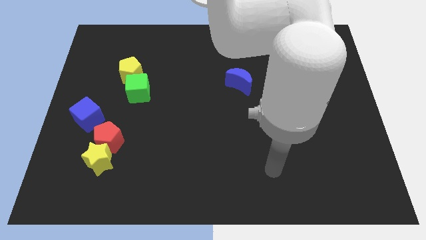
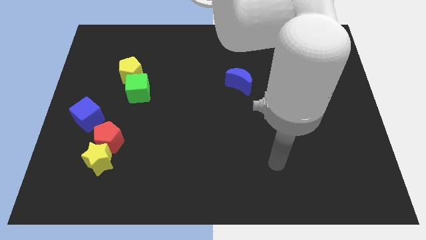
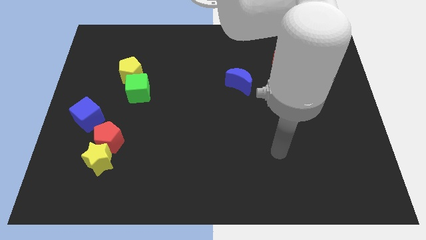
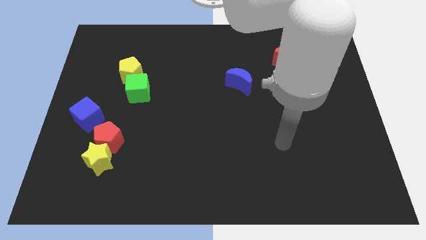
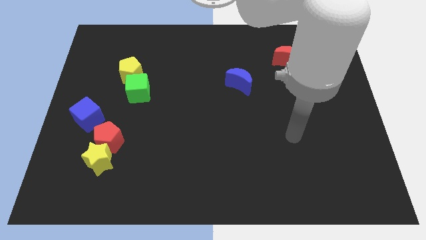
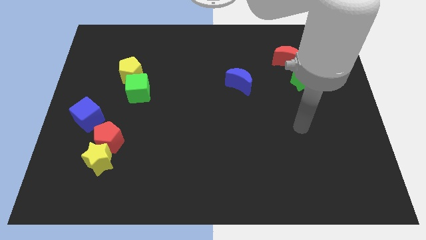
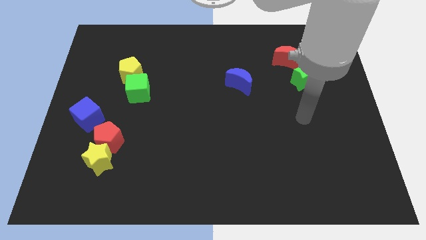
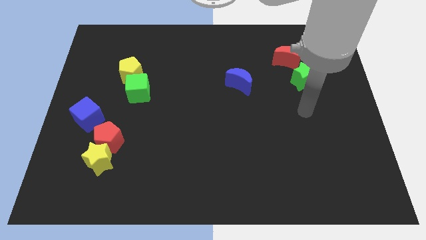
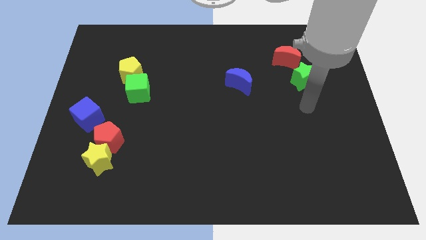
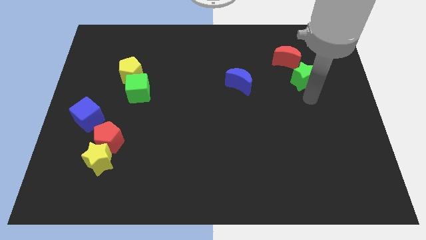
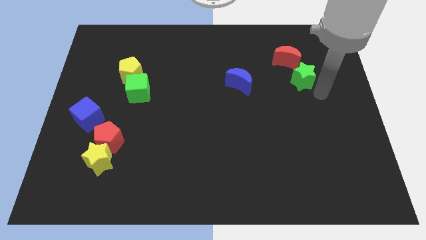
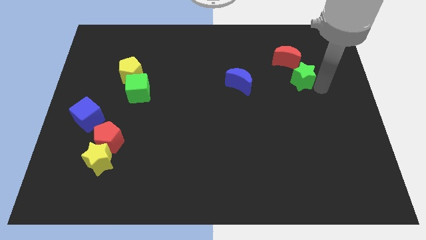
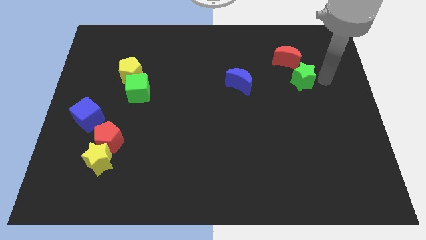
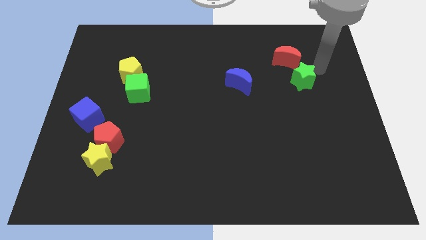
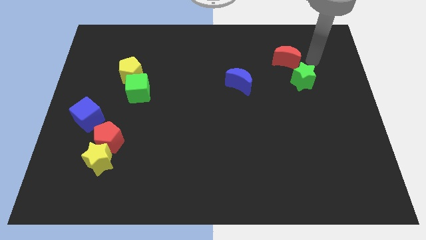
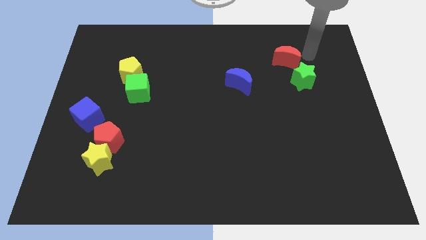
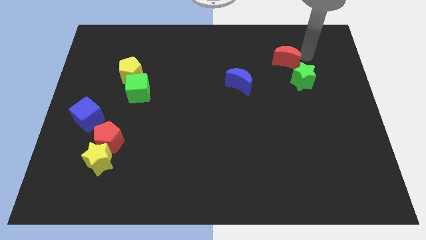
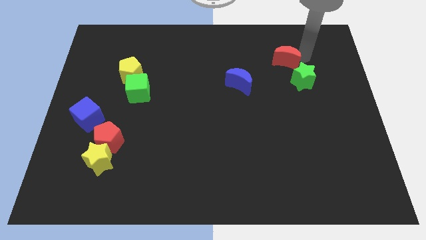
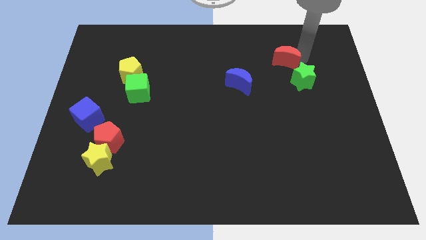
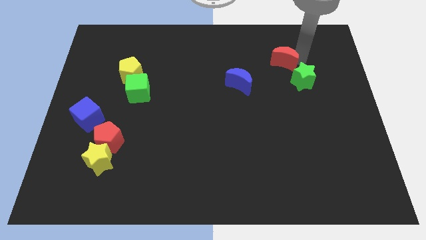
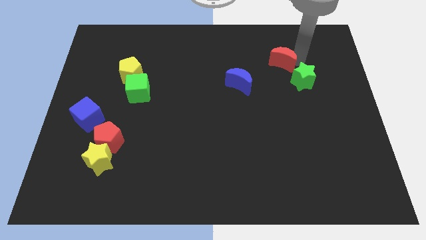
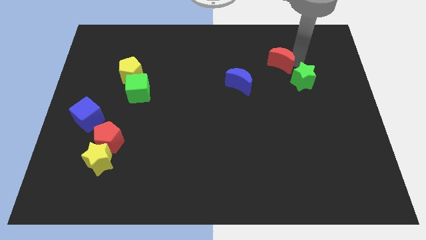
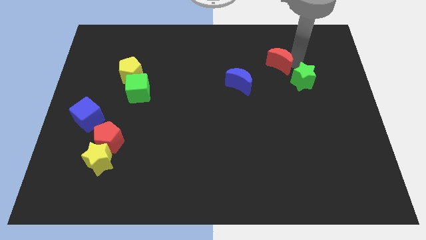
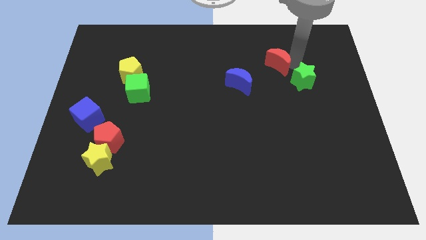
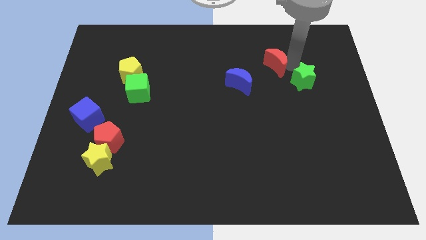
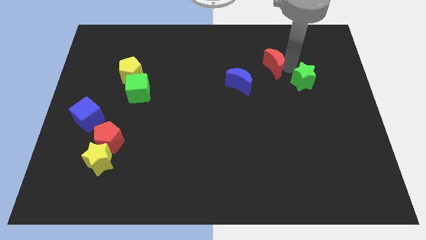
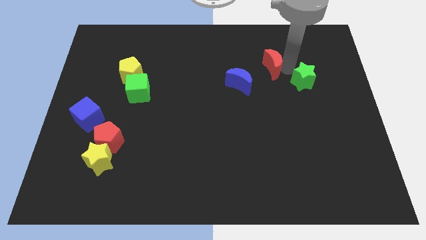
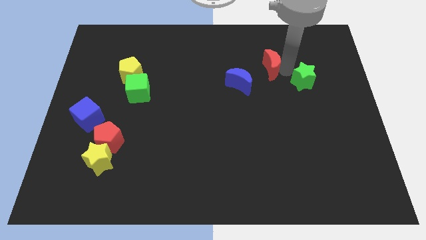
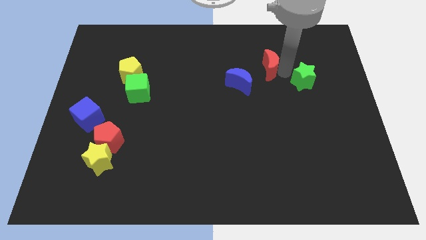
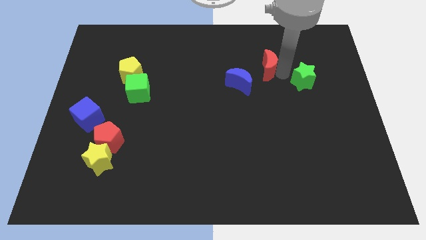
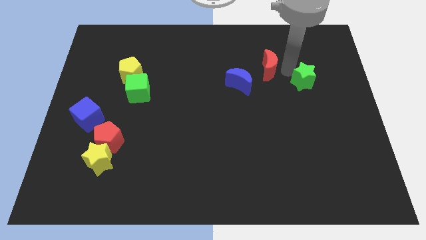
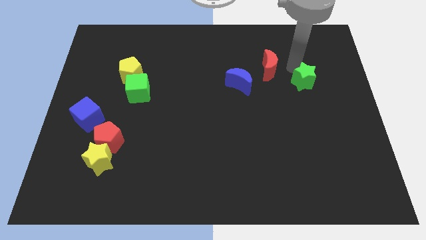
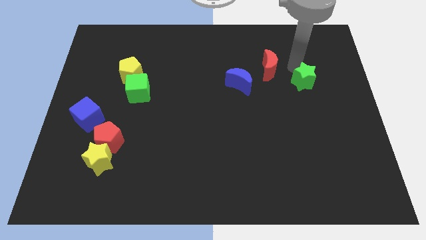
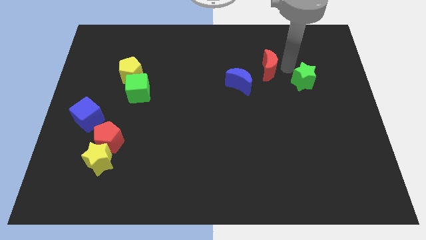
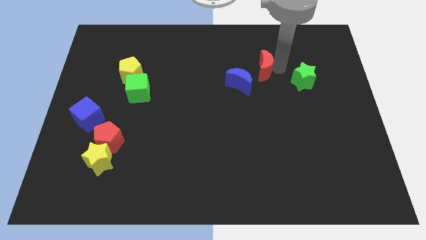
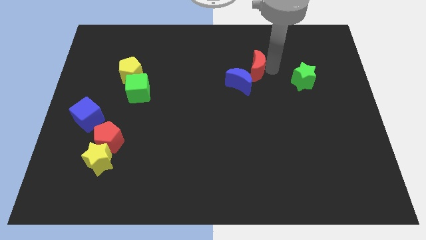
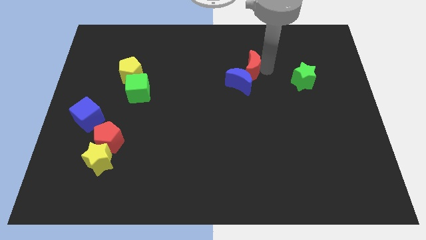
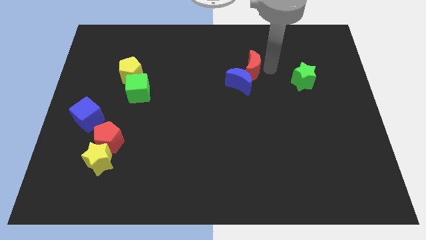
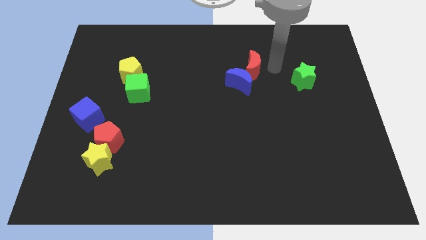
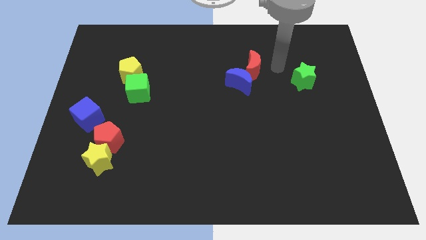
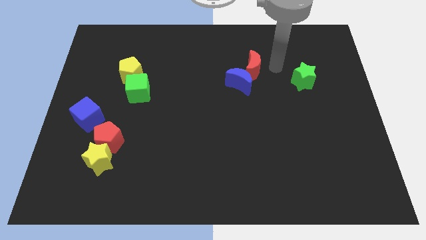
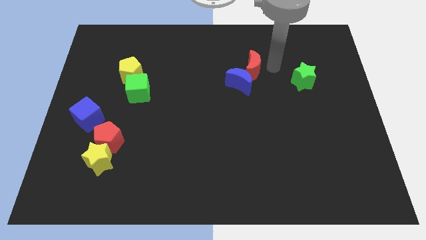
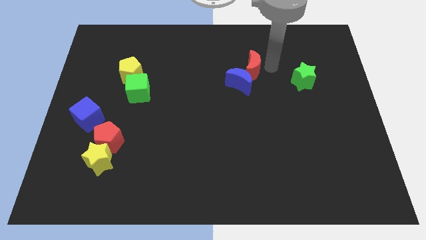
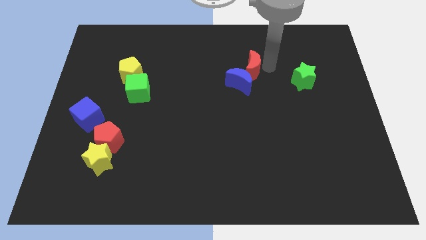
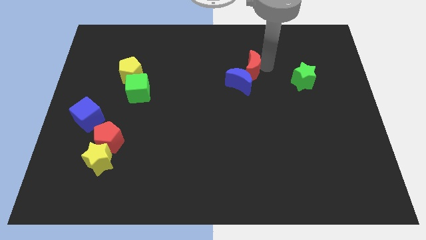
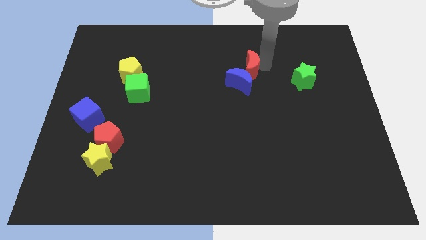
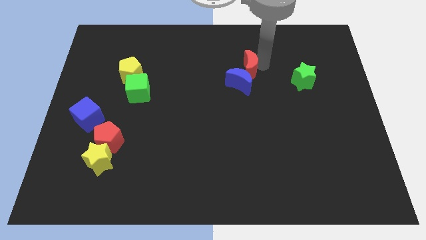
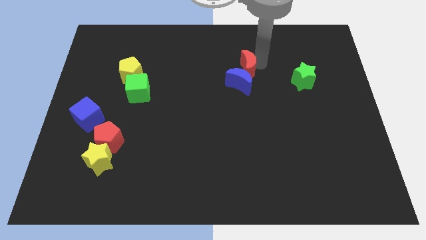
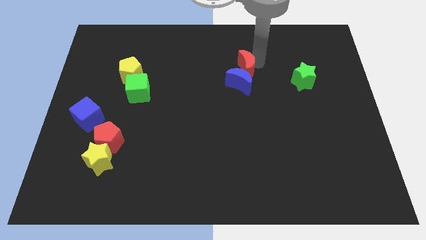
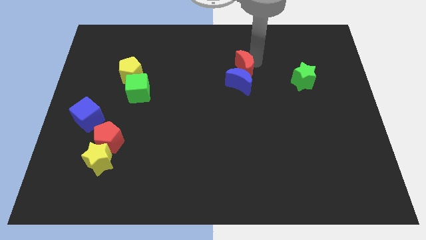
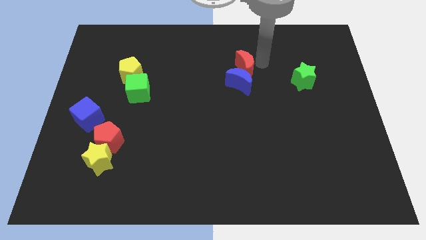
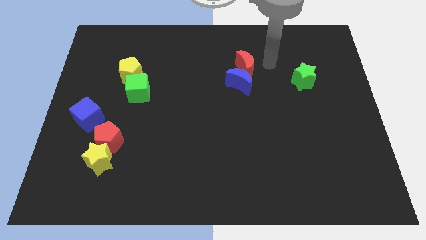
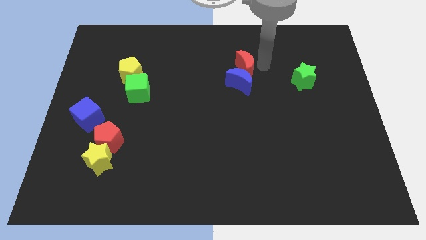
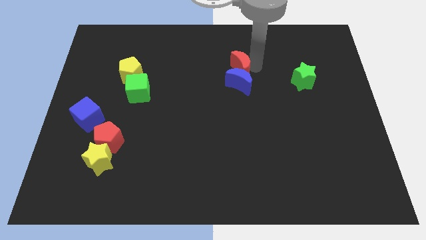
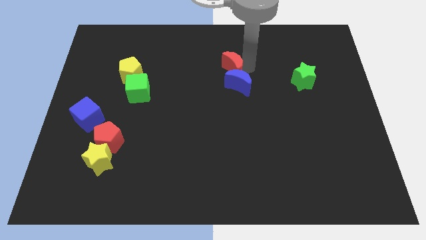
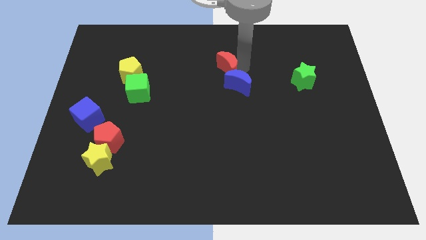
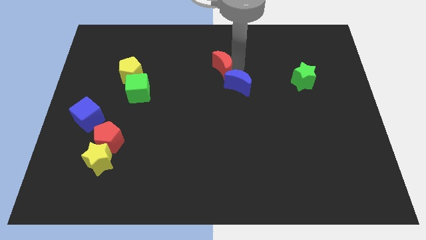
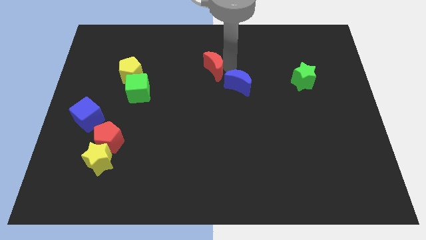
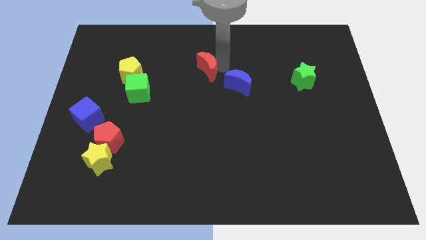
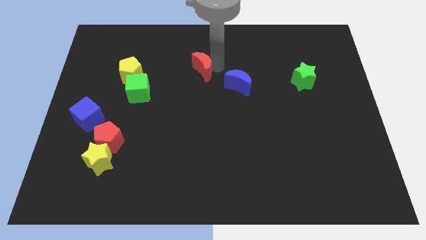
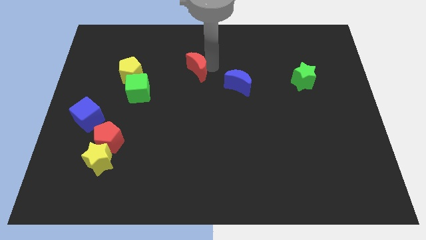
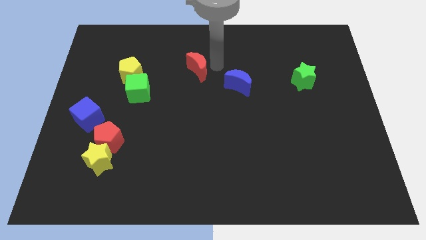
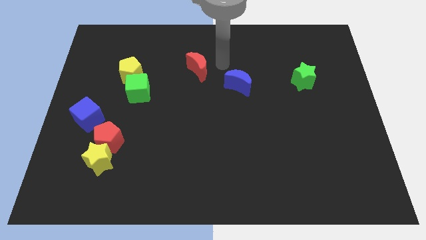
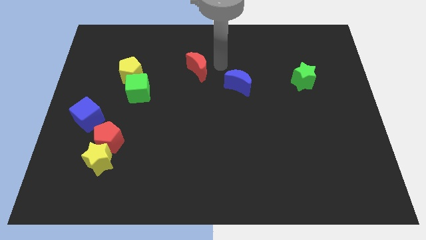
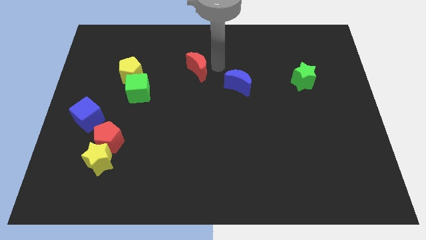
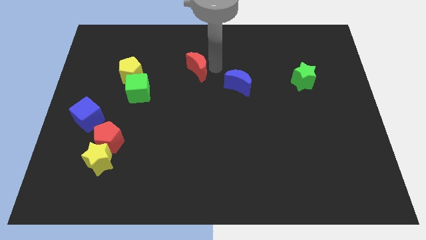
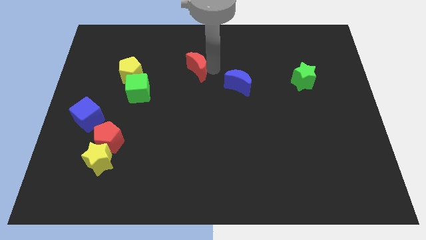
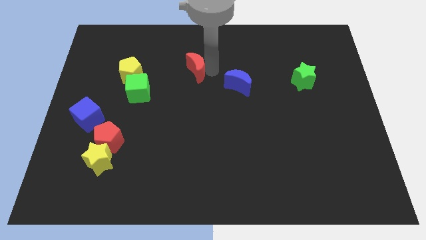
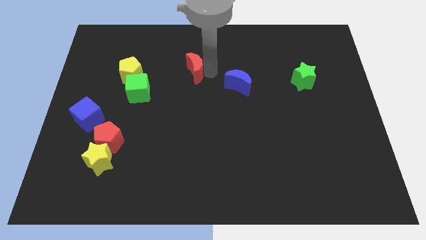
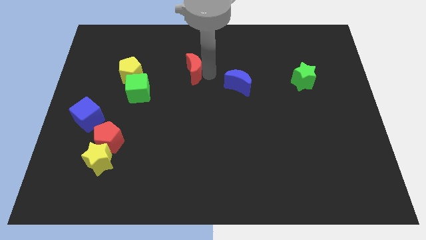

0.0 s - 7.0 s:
put the red moon to the right of the yellow pentagon
